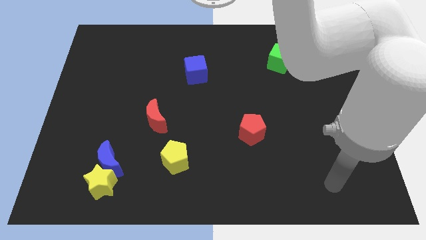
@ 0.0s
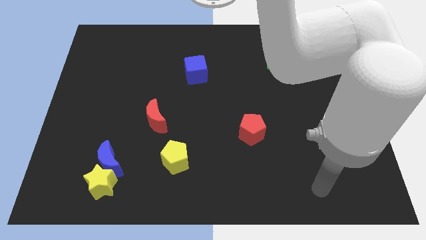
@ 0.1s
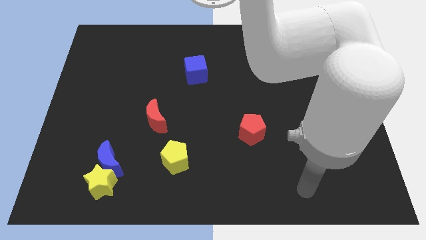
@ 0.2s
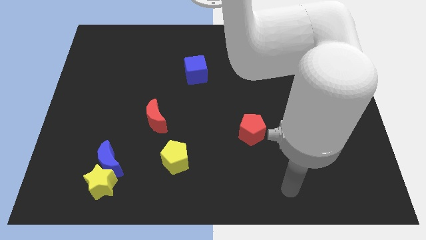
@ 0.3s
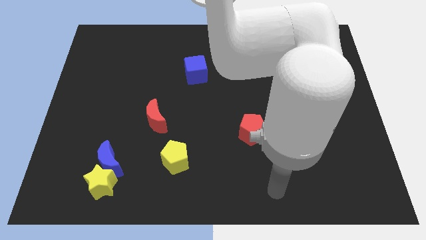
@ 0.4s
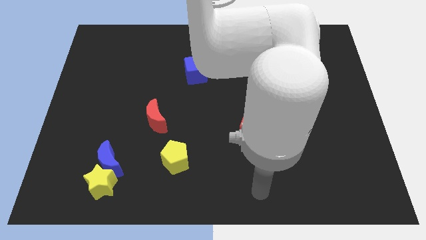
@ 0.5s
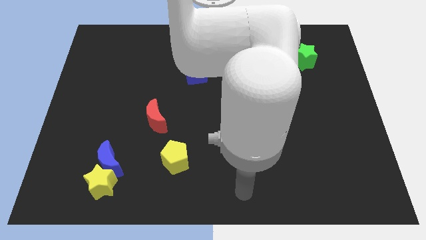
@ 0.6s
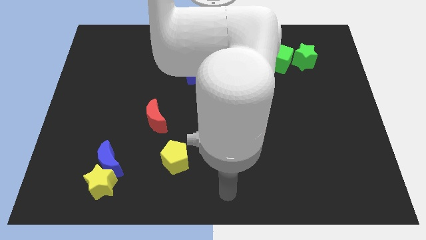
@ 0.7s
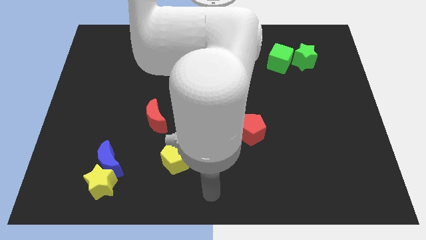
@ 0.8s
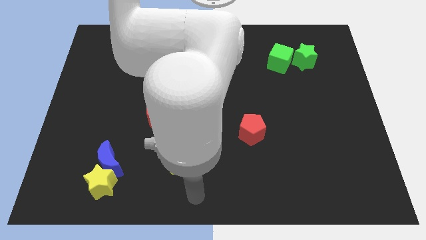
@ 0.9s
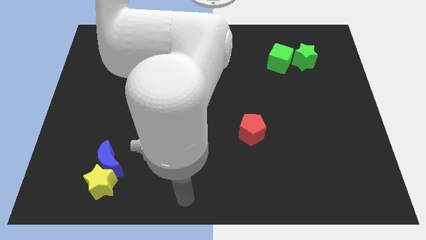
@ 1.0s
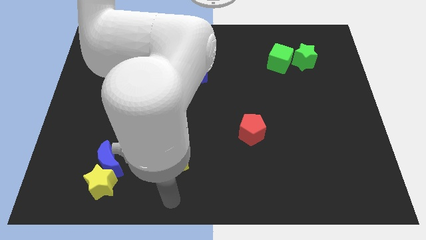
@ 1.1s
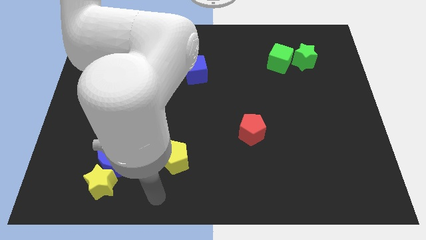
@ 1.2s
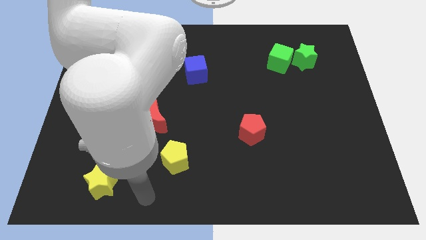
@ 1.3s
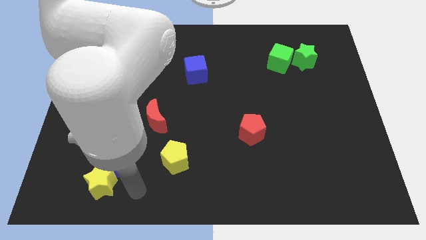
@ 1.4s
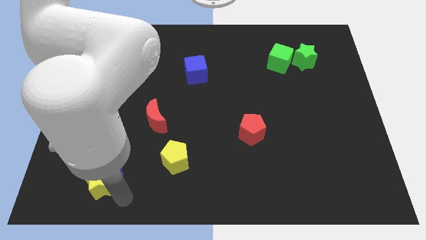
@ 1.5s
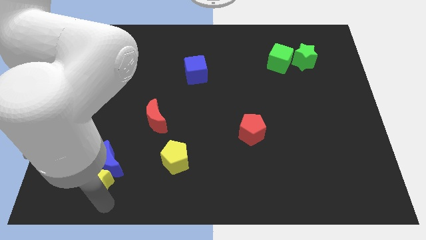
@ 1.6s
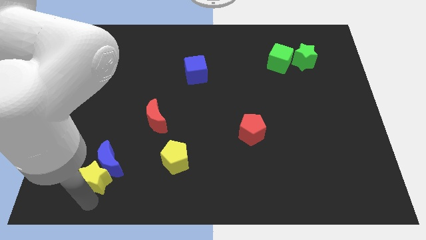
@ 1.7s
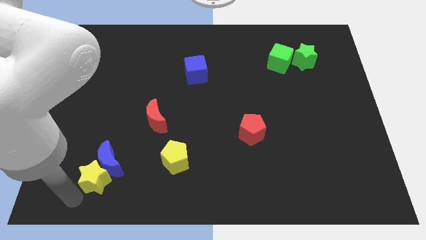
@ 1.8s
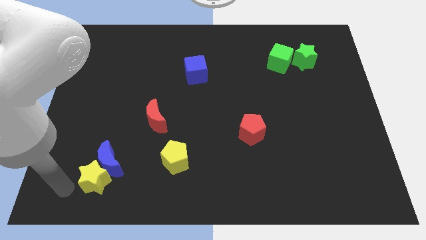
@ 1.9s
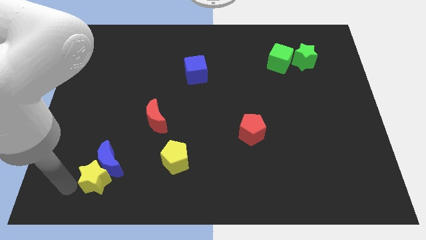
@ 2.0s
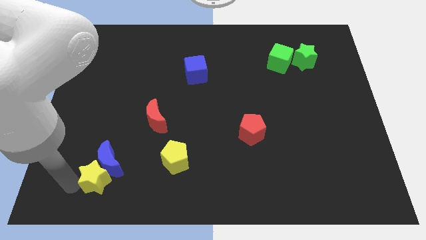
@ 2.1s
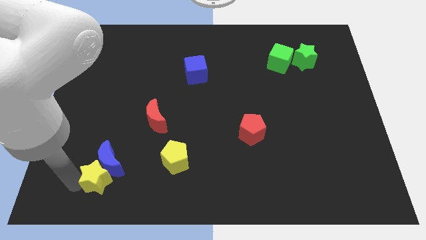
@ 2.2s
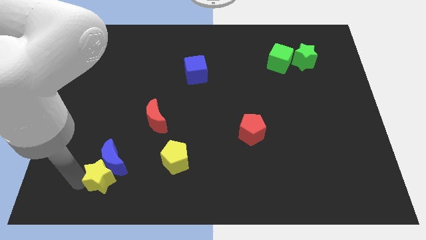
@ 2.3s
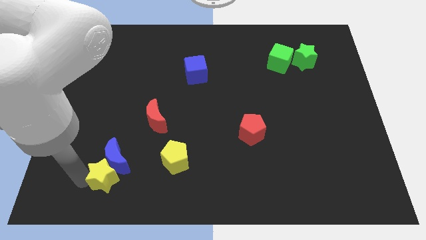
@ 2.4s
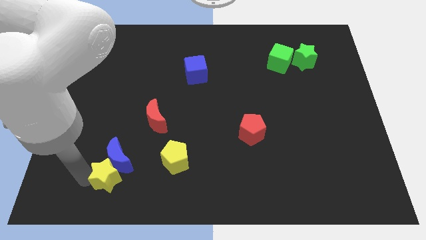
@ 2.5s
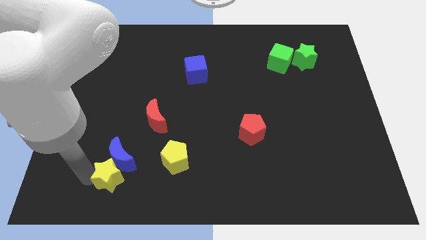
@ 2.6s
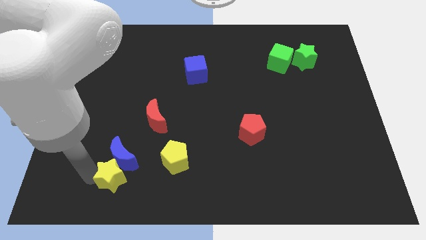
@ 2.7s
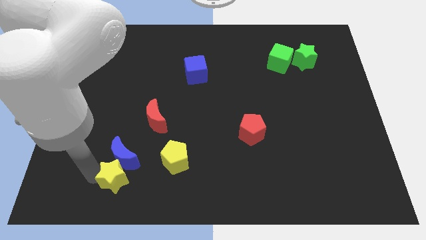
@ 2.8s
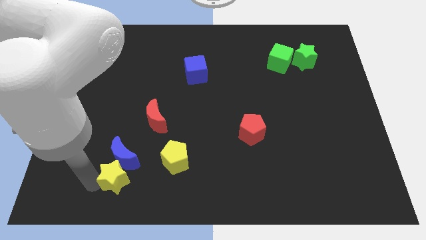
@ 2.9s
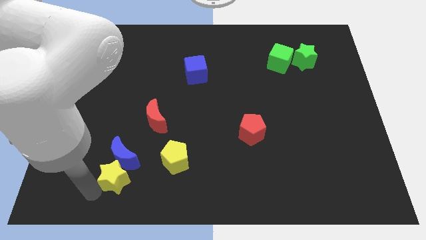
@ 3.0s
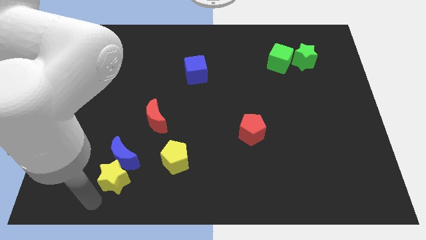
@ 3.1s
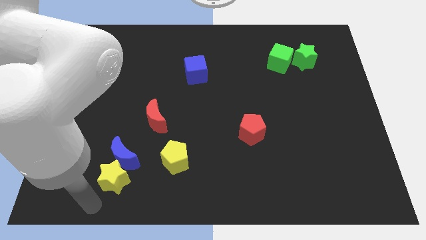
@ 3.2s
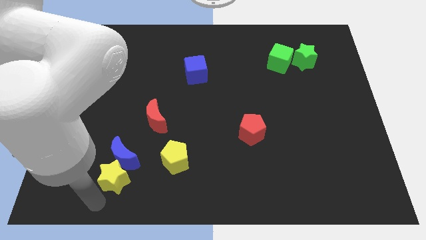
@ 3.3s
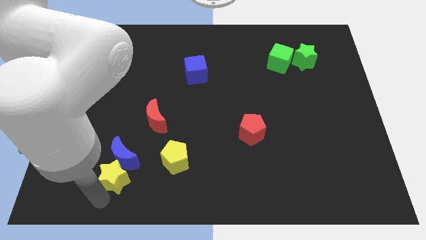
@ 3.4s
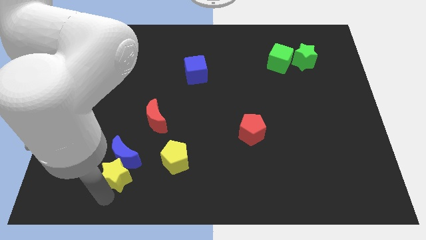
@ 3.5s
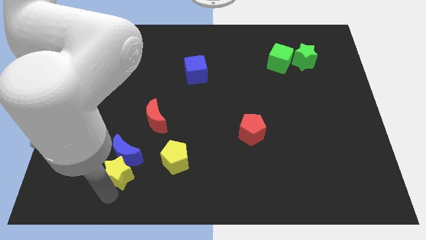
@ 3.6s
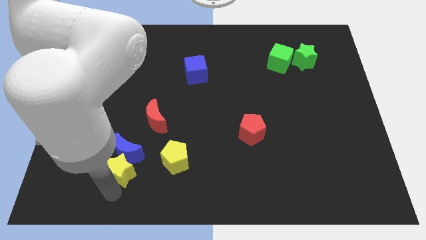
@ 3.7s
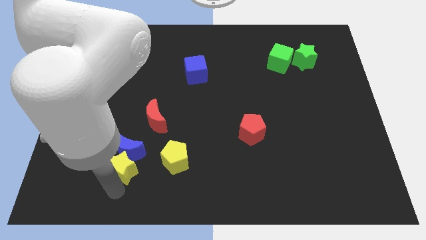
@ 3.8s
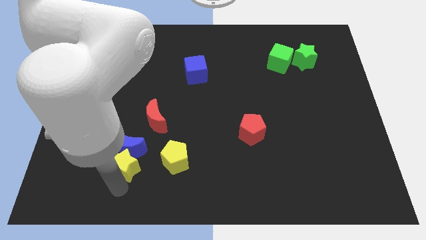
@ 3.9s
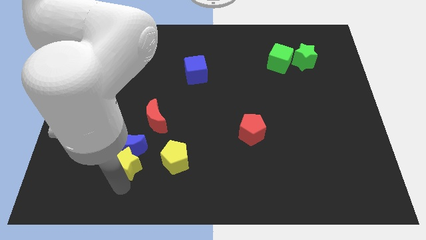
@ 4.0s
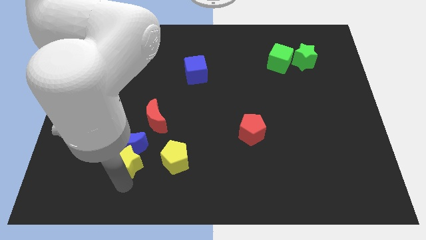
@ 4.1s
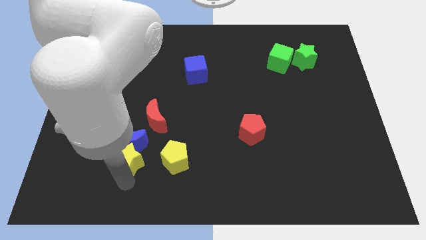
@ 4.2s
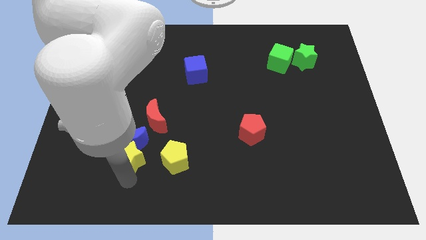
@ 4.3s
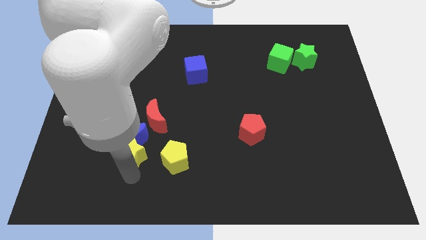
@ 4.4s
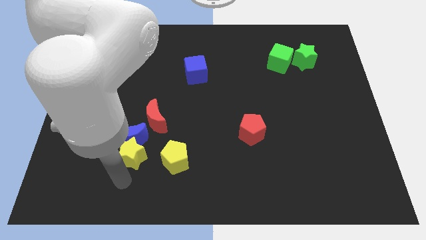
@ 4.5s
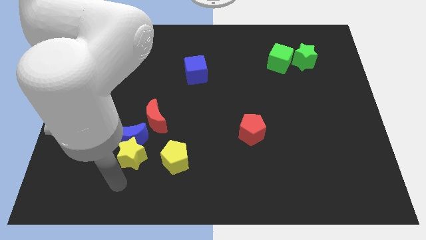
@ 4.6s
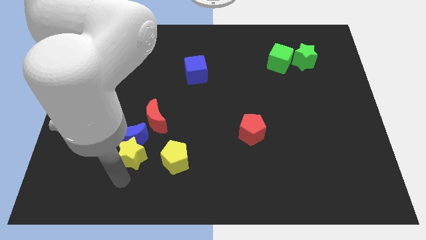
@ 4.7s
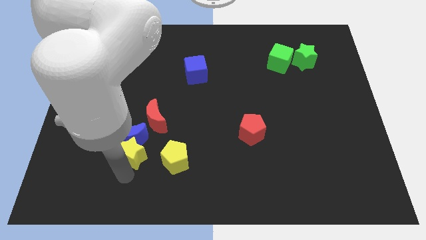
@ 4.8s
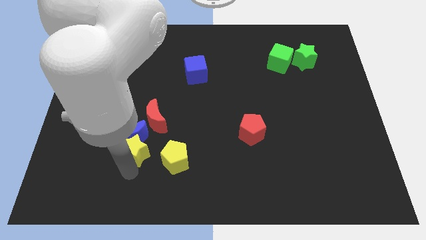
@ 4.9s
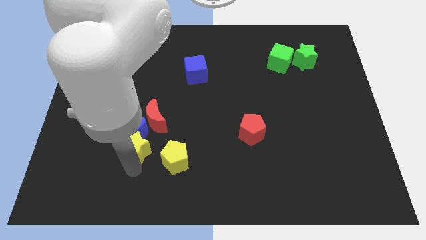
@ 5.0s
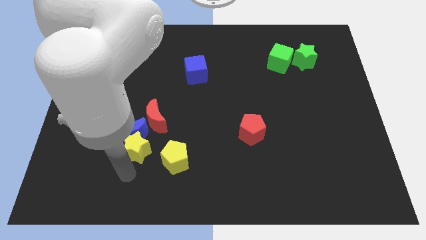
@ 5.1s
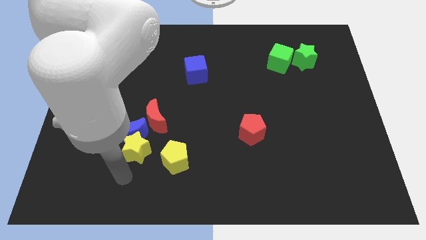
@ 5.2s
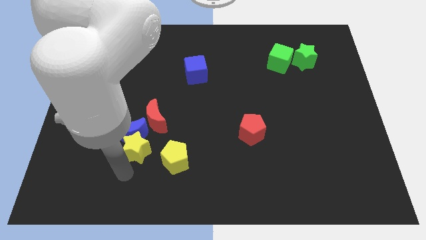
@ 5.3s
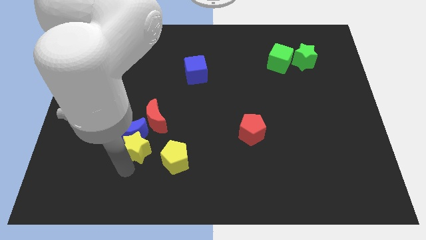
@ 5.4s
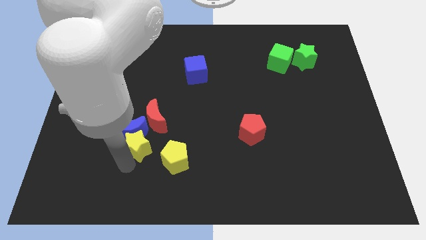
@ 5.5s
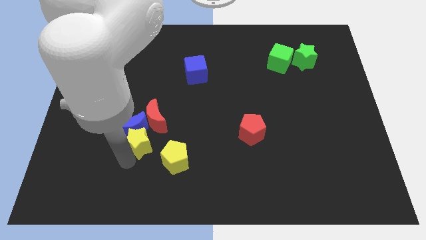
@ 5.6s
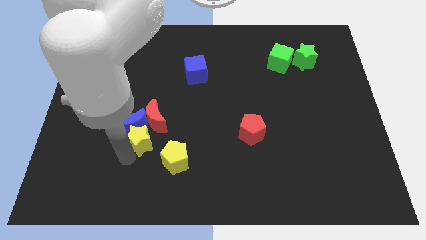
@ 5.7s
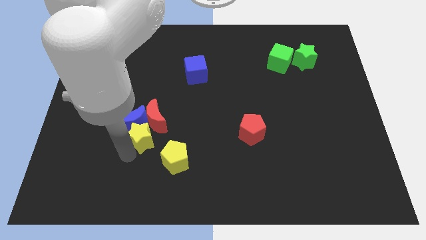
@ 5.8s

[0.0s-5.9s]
put the yellow star to the red moon

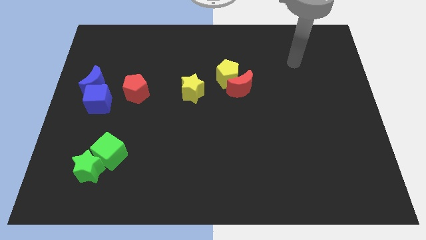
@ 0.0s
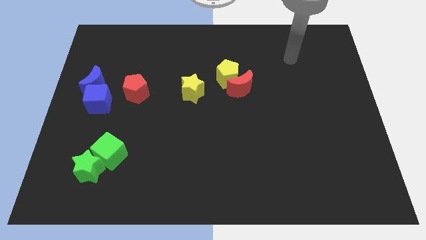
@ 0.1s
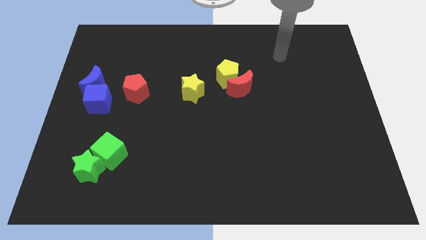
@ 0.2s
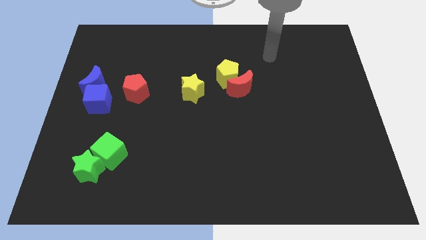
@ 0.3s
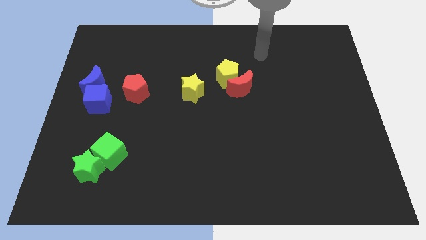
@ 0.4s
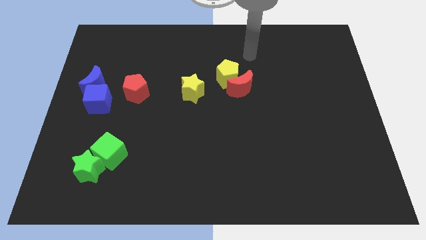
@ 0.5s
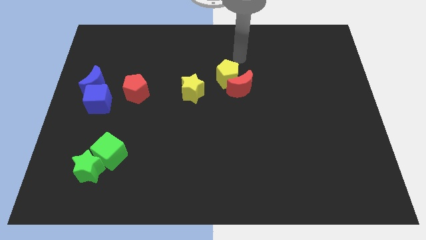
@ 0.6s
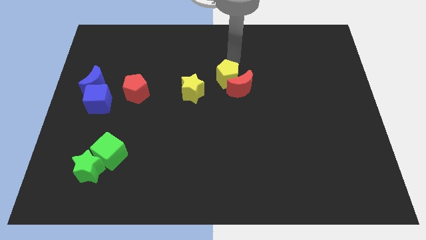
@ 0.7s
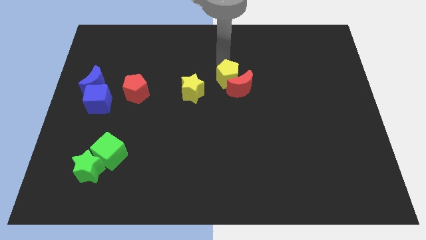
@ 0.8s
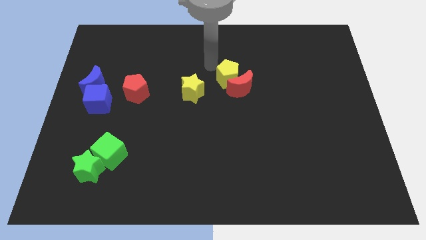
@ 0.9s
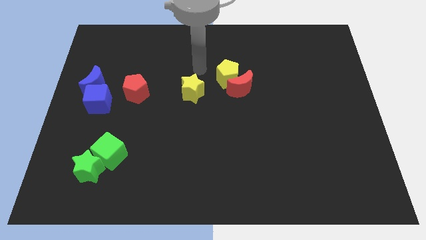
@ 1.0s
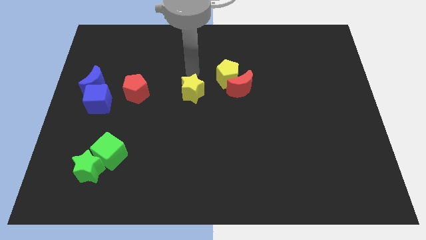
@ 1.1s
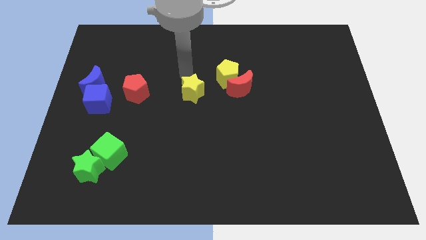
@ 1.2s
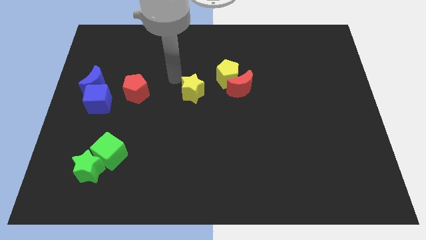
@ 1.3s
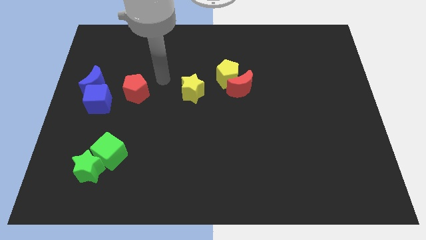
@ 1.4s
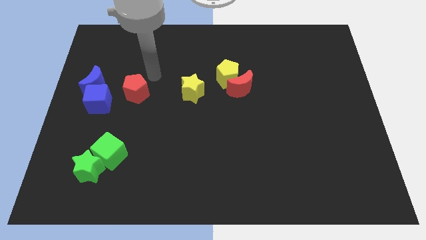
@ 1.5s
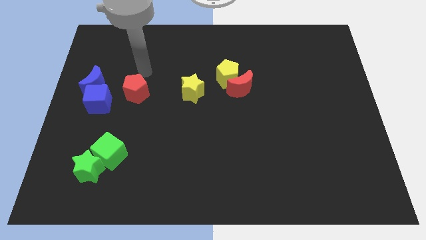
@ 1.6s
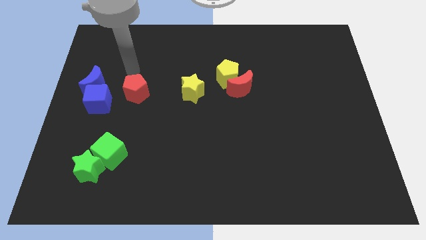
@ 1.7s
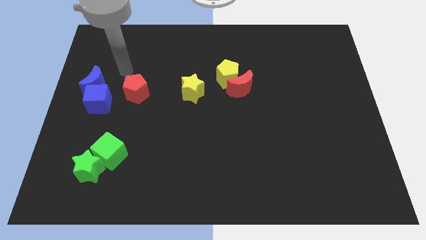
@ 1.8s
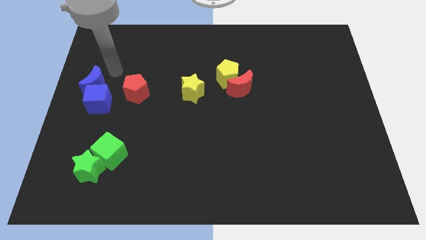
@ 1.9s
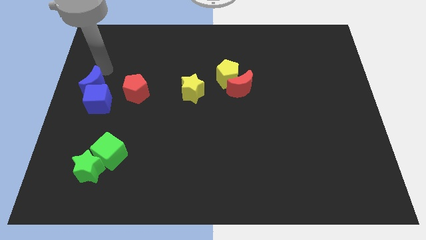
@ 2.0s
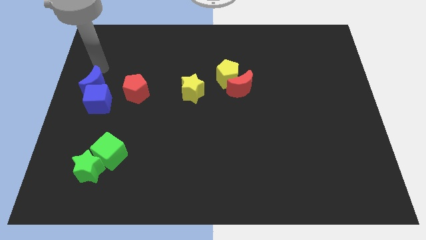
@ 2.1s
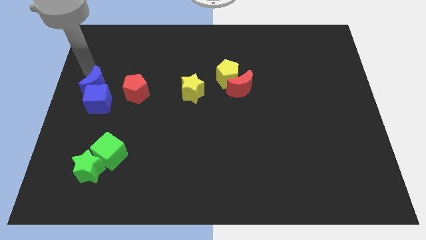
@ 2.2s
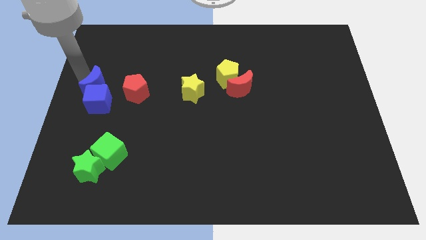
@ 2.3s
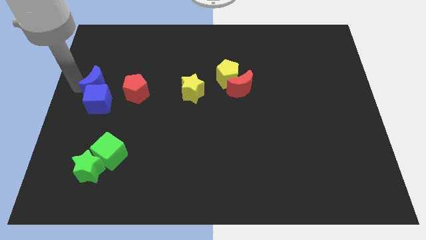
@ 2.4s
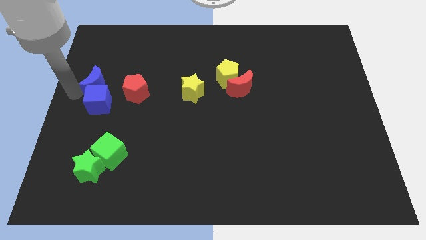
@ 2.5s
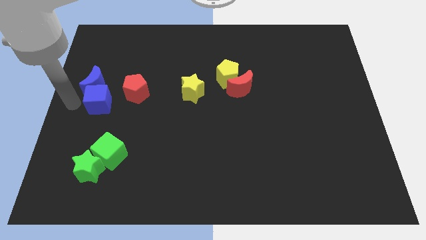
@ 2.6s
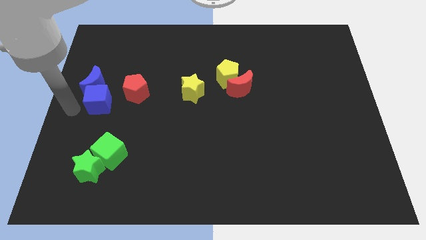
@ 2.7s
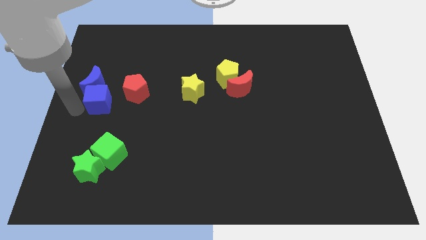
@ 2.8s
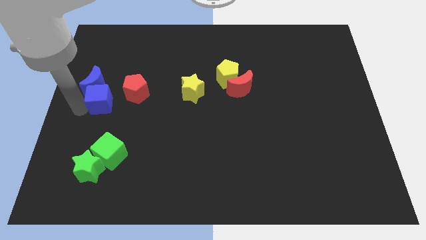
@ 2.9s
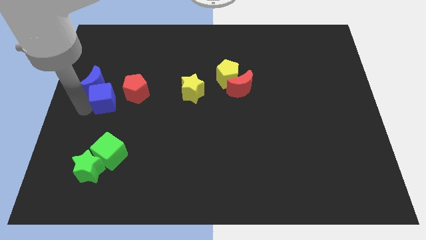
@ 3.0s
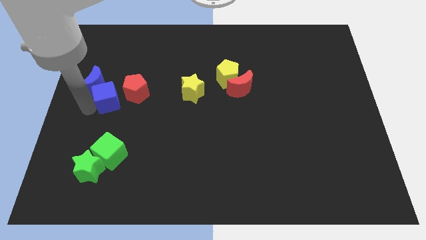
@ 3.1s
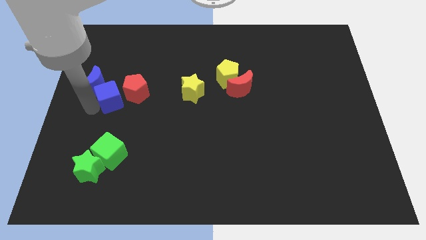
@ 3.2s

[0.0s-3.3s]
slide the blue cube next to the red pentagon
